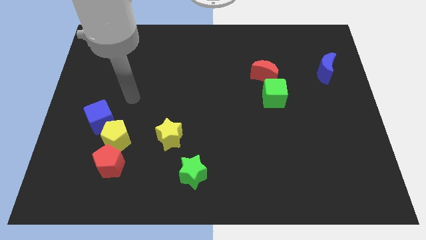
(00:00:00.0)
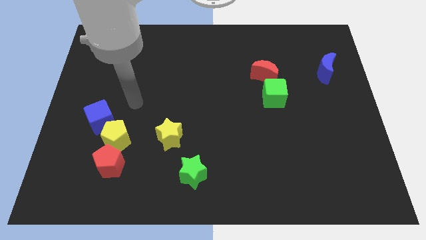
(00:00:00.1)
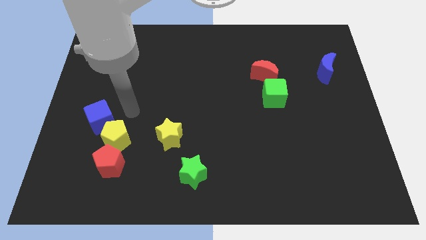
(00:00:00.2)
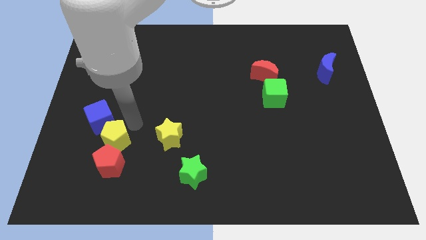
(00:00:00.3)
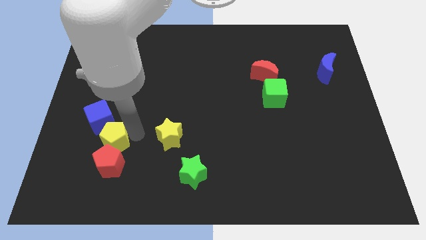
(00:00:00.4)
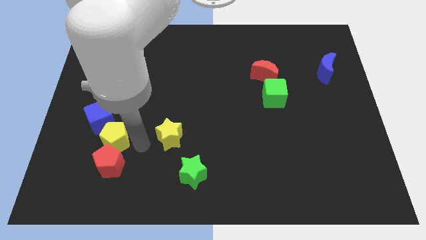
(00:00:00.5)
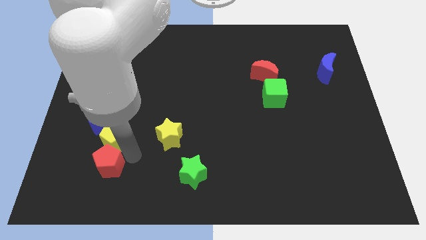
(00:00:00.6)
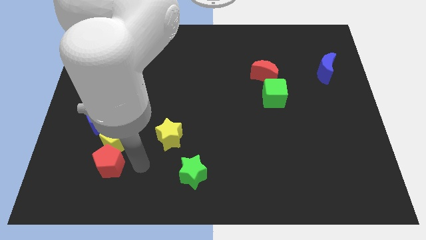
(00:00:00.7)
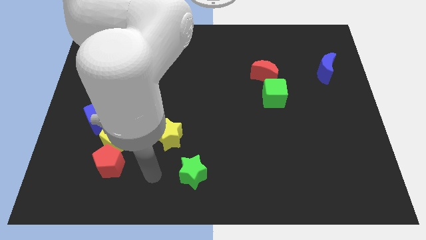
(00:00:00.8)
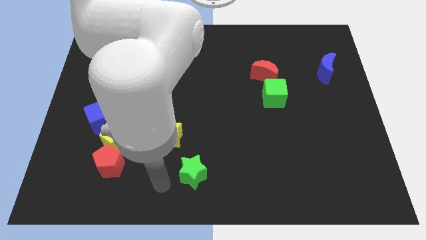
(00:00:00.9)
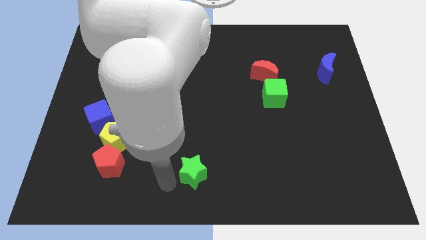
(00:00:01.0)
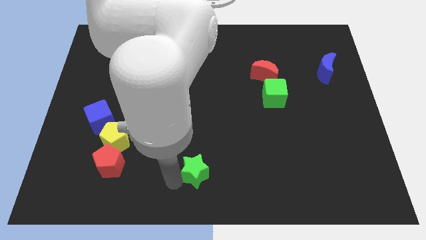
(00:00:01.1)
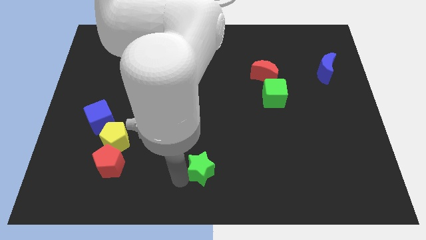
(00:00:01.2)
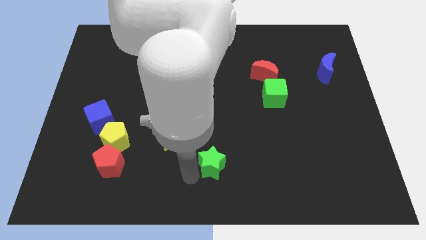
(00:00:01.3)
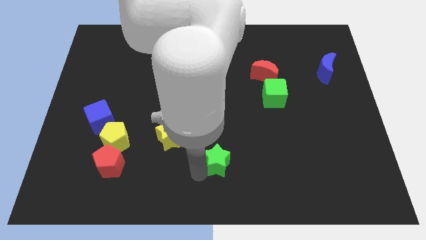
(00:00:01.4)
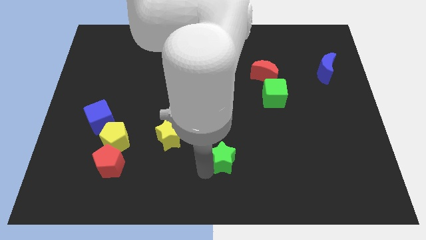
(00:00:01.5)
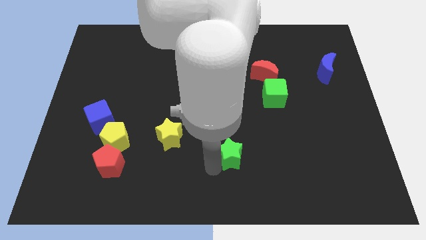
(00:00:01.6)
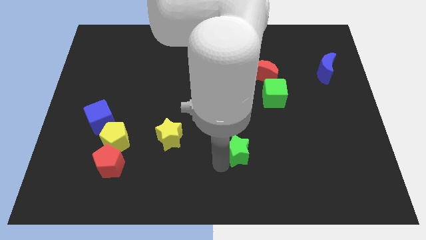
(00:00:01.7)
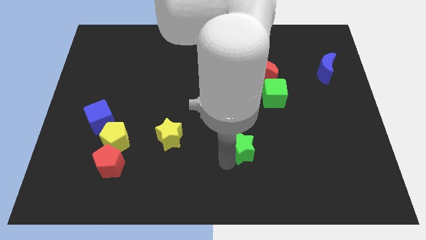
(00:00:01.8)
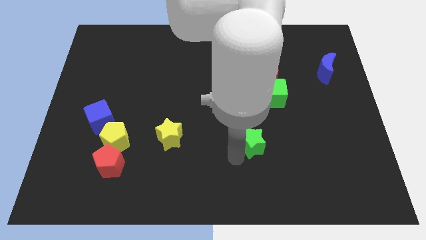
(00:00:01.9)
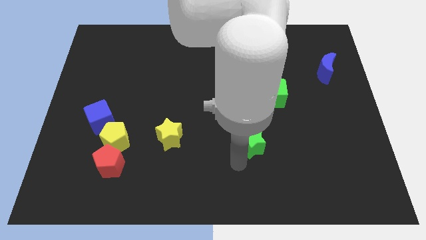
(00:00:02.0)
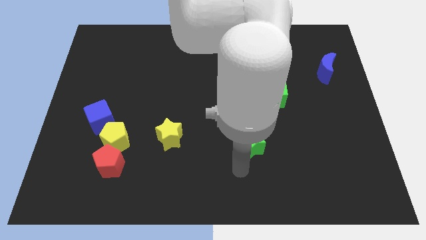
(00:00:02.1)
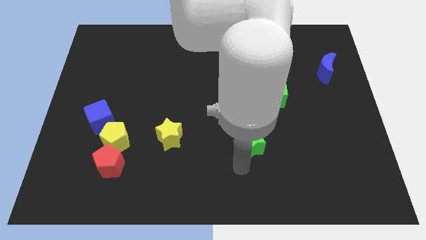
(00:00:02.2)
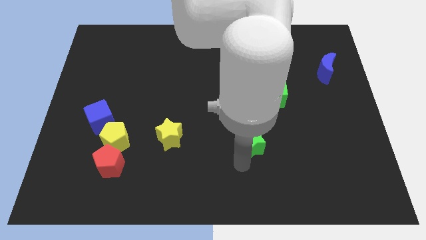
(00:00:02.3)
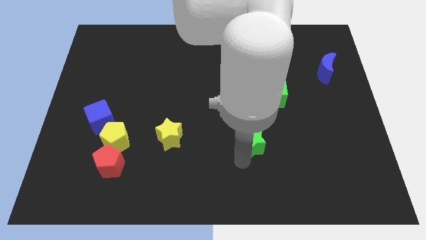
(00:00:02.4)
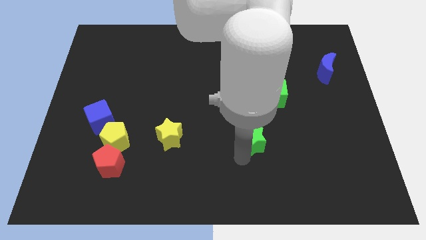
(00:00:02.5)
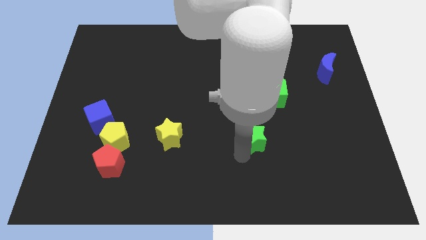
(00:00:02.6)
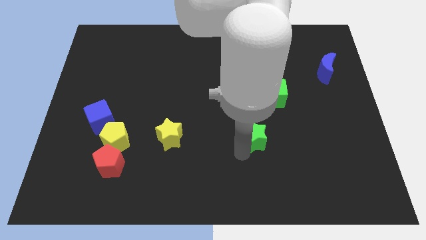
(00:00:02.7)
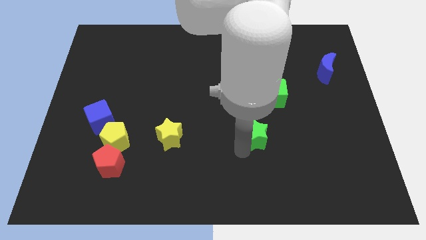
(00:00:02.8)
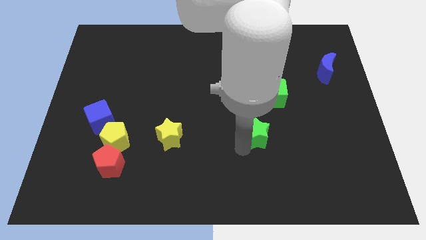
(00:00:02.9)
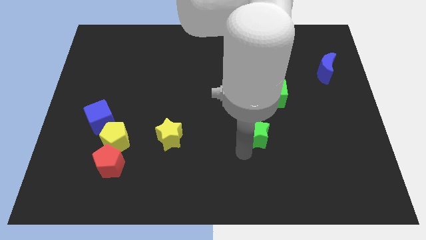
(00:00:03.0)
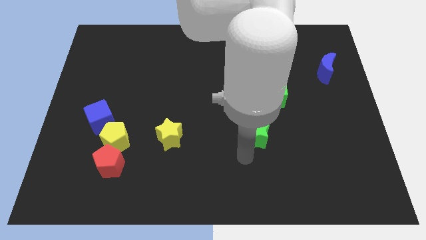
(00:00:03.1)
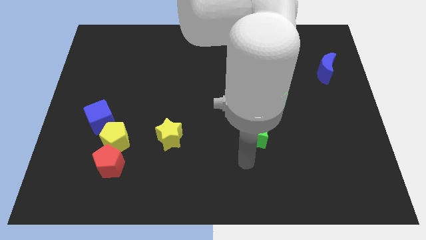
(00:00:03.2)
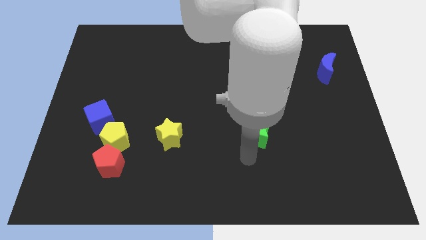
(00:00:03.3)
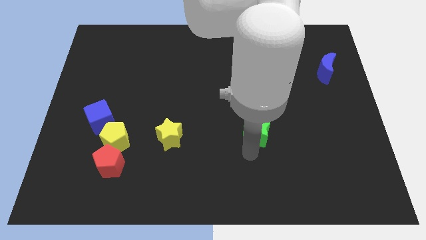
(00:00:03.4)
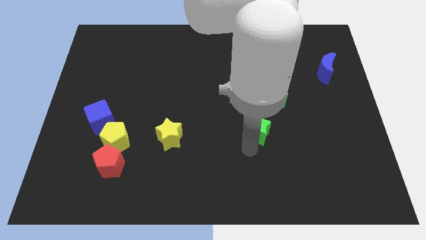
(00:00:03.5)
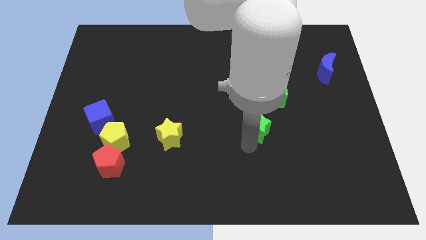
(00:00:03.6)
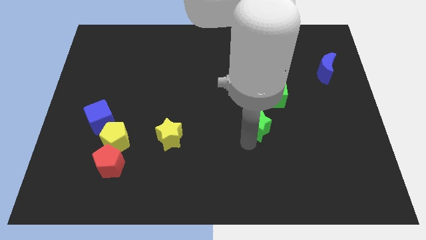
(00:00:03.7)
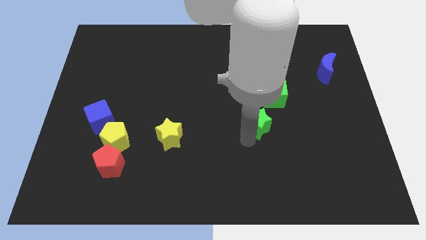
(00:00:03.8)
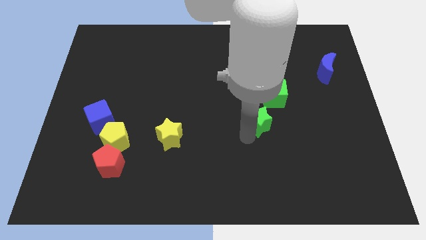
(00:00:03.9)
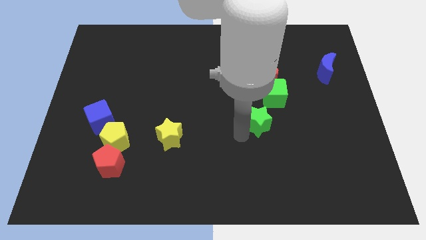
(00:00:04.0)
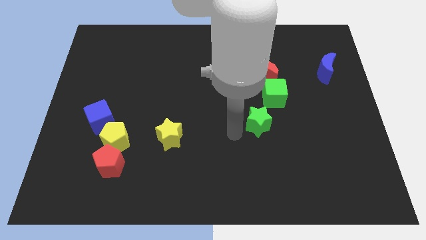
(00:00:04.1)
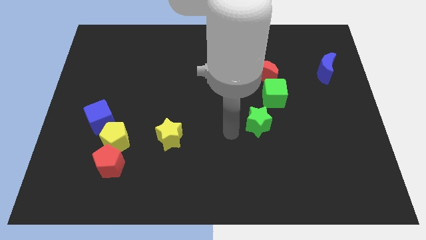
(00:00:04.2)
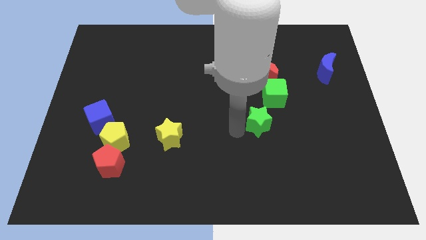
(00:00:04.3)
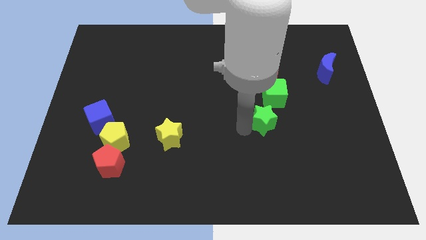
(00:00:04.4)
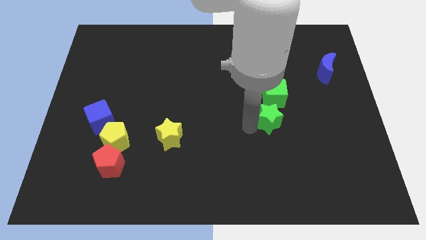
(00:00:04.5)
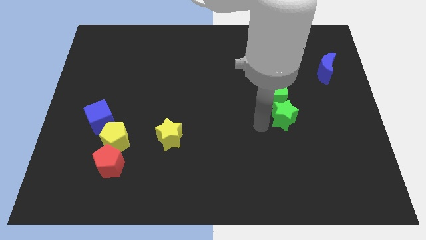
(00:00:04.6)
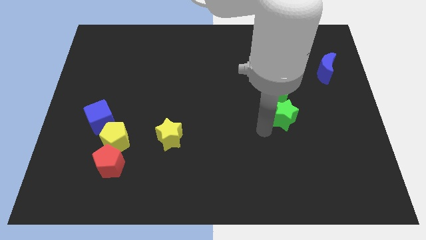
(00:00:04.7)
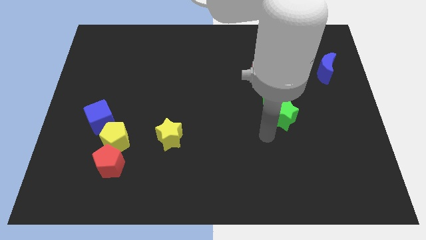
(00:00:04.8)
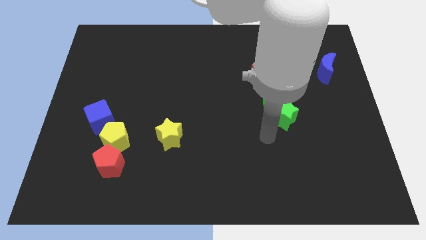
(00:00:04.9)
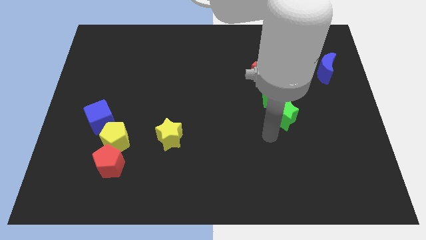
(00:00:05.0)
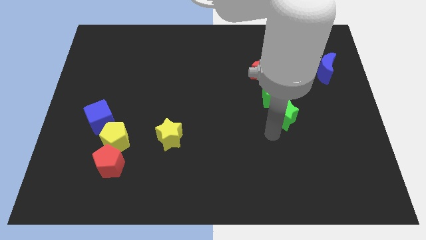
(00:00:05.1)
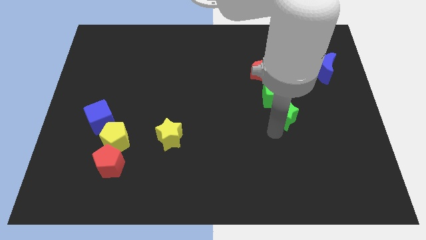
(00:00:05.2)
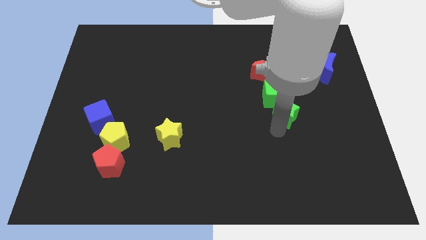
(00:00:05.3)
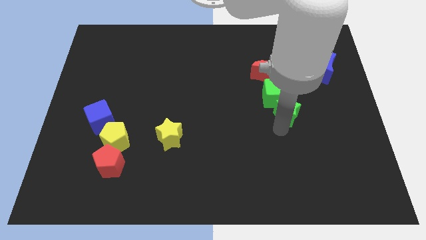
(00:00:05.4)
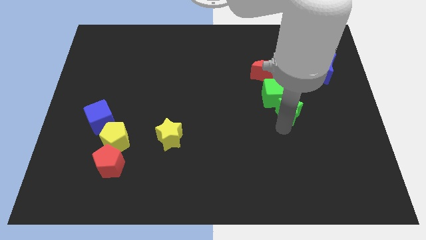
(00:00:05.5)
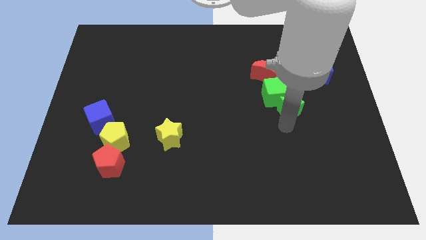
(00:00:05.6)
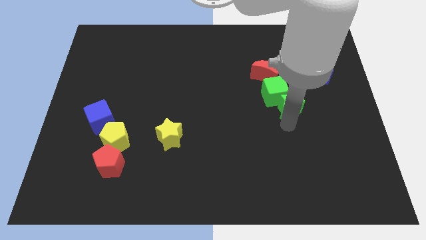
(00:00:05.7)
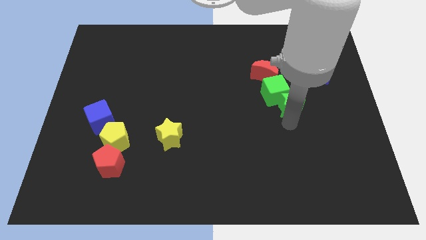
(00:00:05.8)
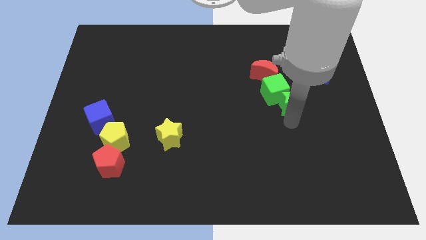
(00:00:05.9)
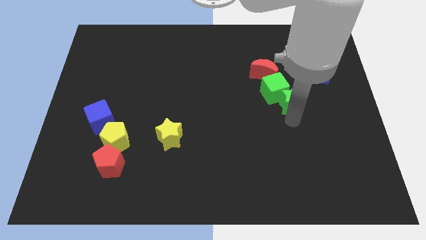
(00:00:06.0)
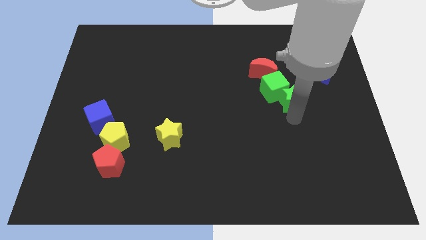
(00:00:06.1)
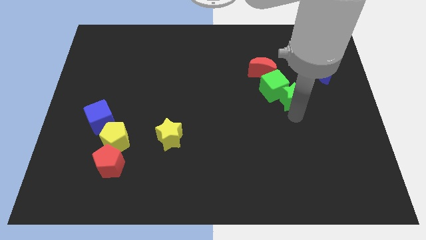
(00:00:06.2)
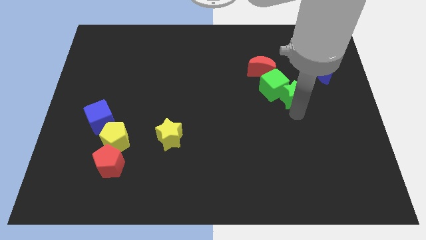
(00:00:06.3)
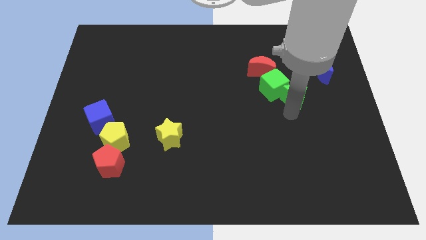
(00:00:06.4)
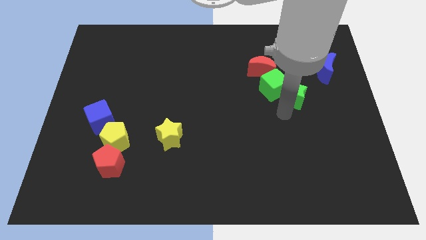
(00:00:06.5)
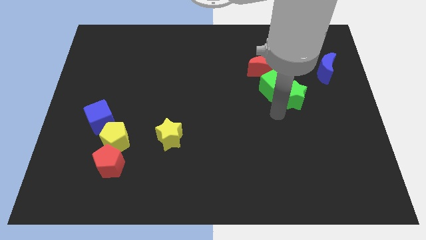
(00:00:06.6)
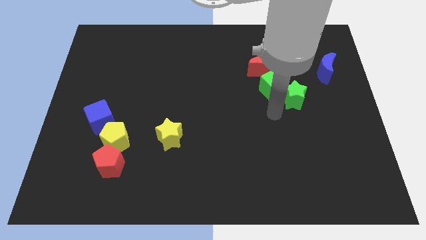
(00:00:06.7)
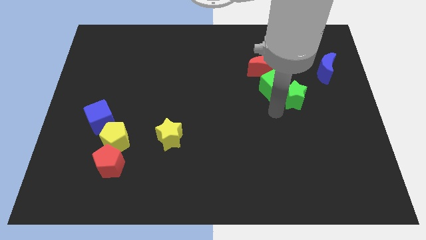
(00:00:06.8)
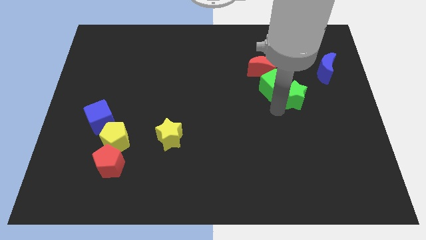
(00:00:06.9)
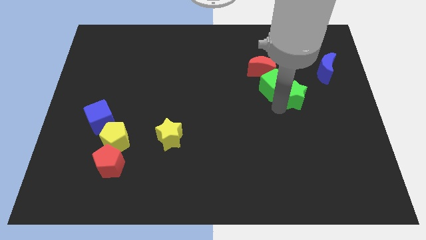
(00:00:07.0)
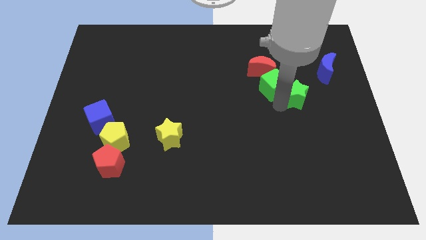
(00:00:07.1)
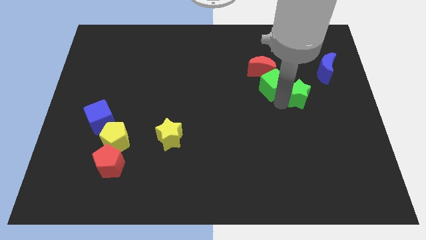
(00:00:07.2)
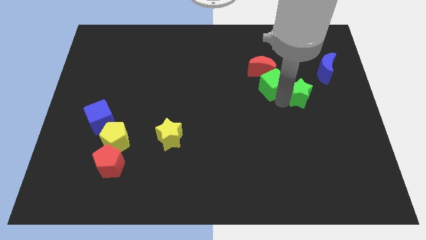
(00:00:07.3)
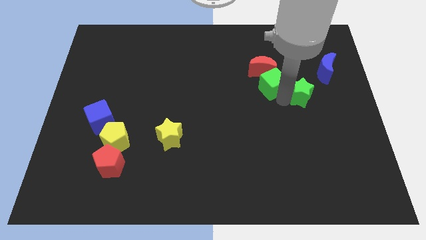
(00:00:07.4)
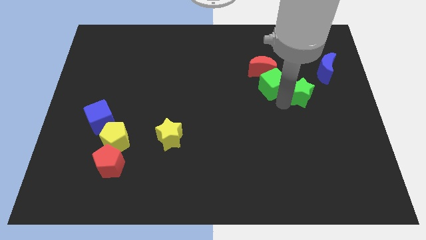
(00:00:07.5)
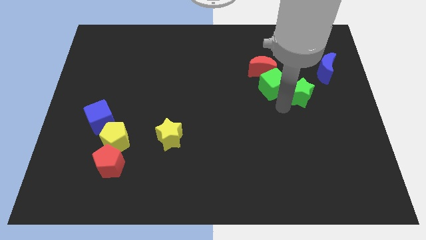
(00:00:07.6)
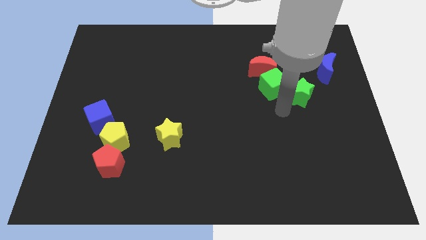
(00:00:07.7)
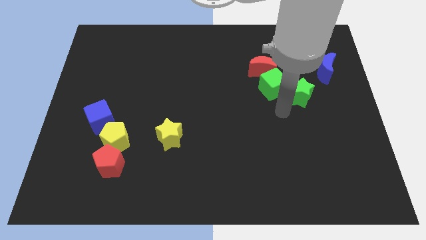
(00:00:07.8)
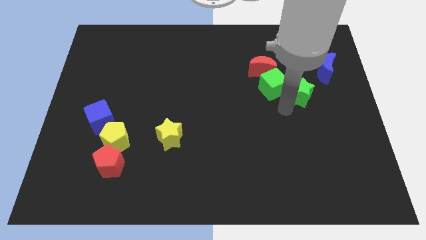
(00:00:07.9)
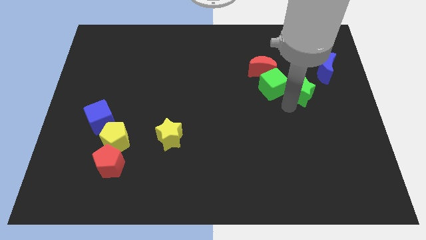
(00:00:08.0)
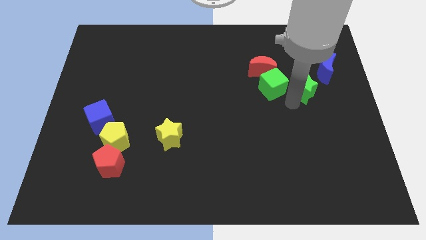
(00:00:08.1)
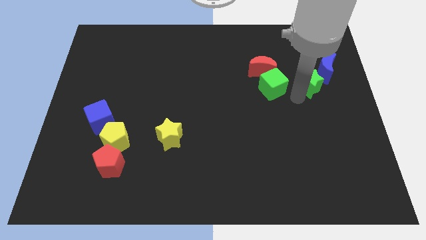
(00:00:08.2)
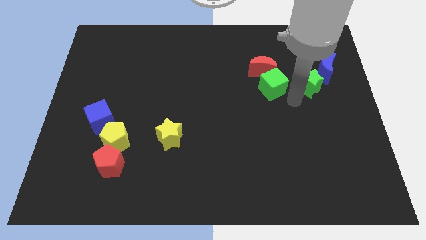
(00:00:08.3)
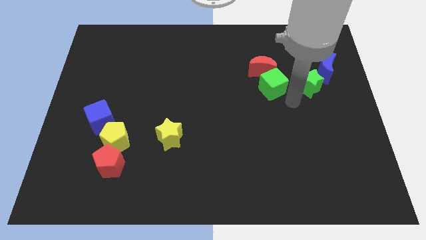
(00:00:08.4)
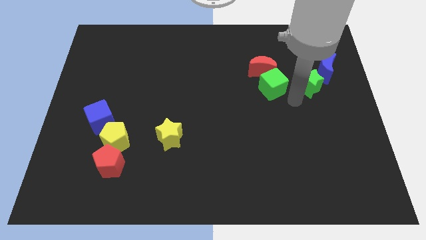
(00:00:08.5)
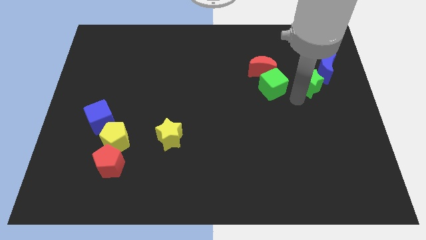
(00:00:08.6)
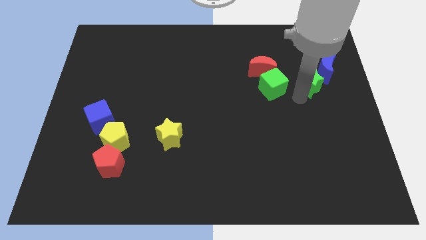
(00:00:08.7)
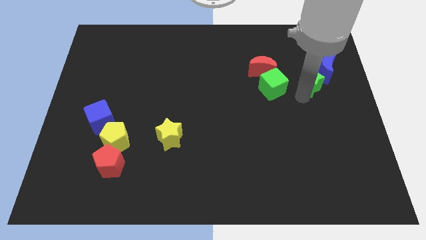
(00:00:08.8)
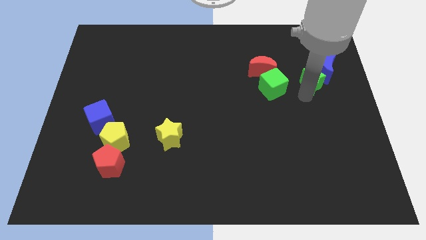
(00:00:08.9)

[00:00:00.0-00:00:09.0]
move the green star close to the blue moon
